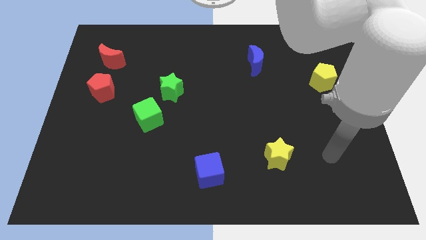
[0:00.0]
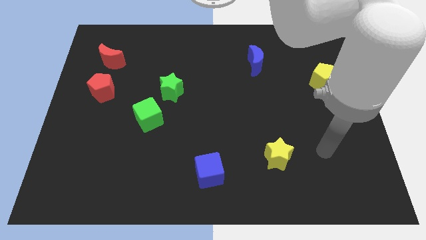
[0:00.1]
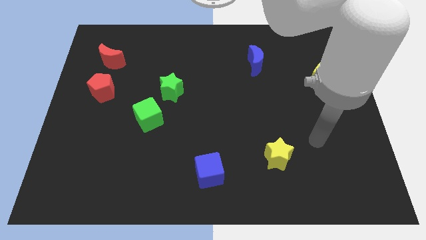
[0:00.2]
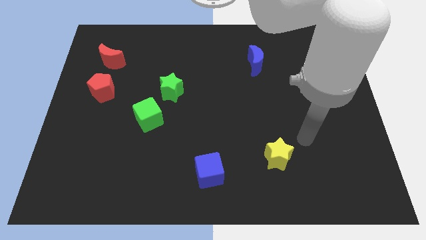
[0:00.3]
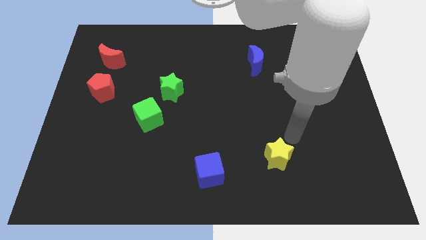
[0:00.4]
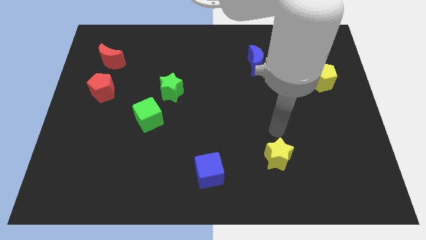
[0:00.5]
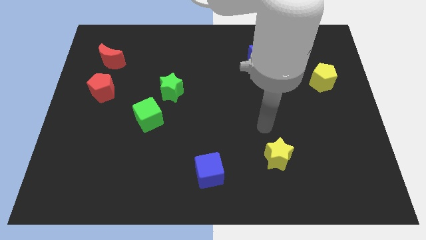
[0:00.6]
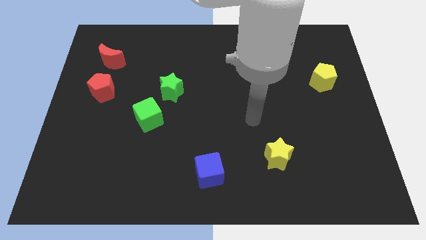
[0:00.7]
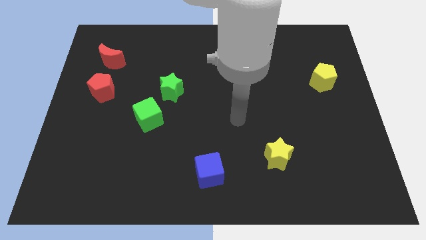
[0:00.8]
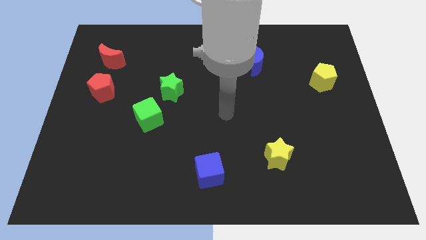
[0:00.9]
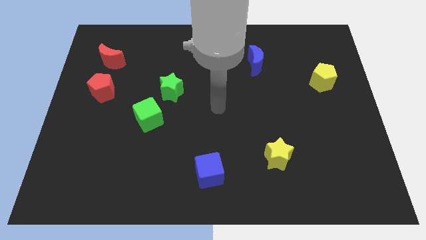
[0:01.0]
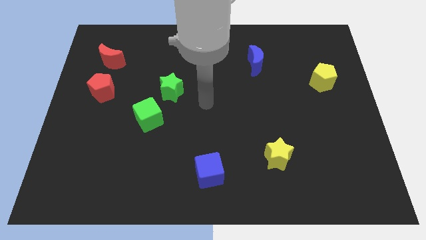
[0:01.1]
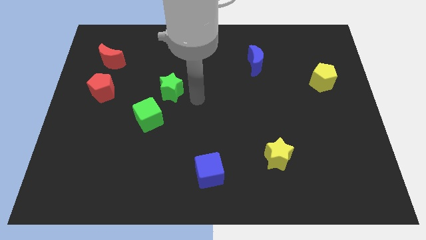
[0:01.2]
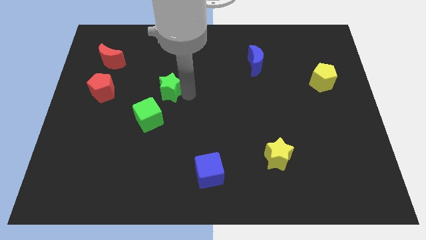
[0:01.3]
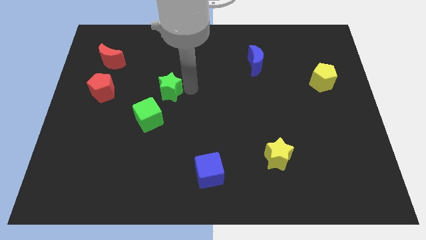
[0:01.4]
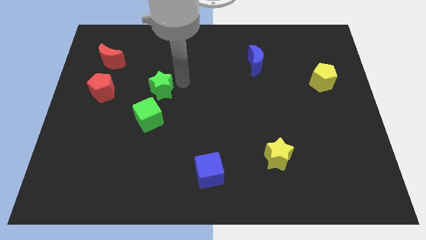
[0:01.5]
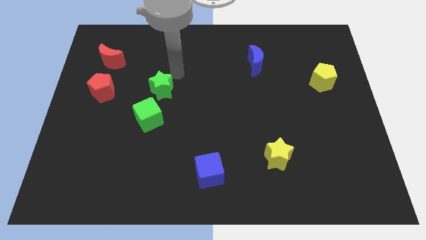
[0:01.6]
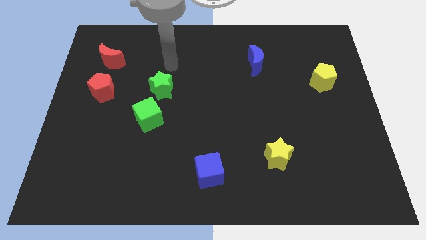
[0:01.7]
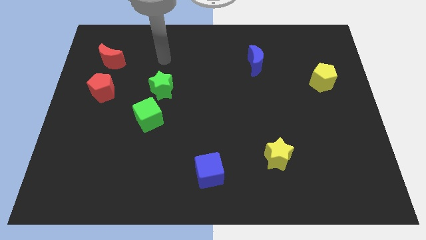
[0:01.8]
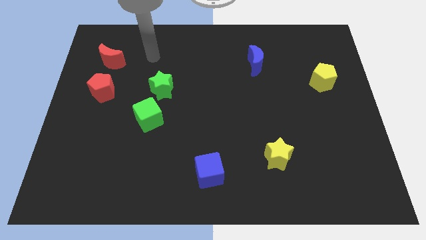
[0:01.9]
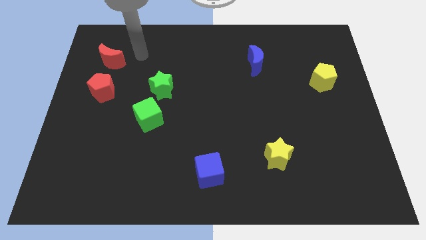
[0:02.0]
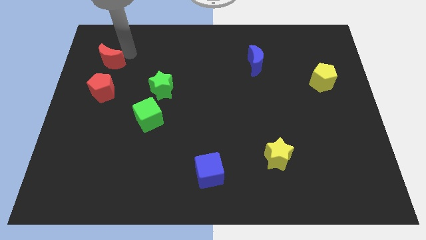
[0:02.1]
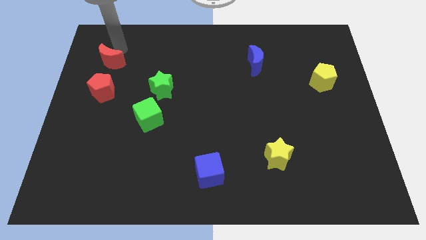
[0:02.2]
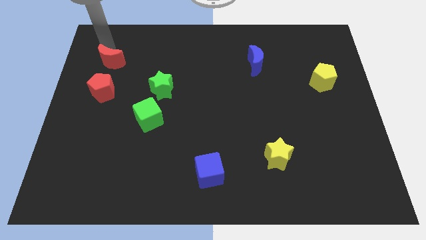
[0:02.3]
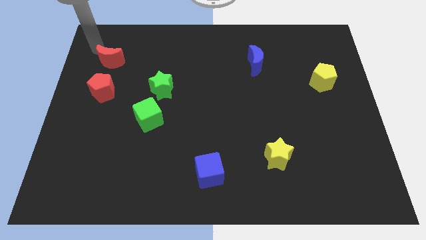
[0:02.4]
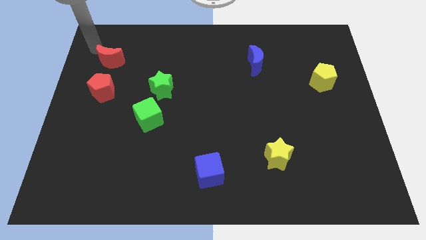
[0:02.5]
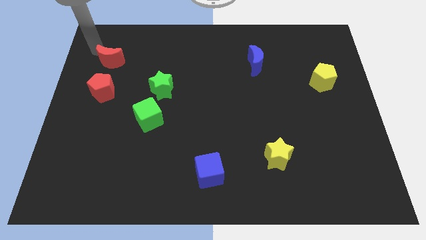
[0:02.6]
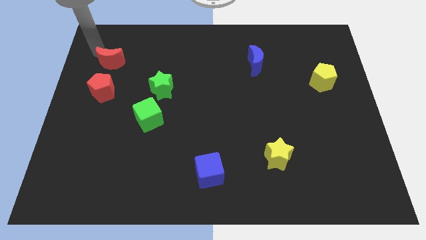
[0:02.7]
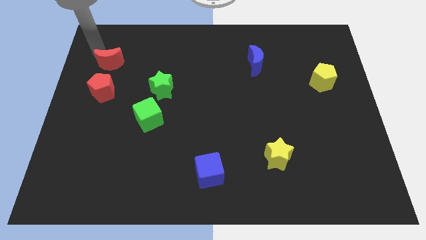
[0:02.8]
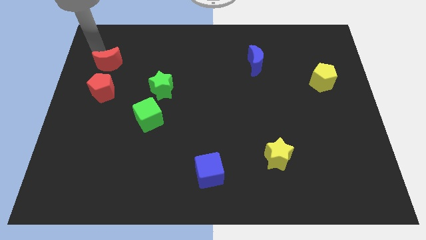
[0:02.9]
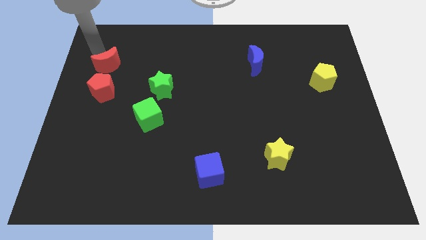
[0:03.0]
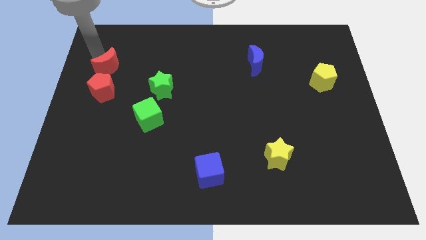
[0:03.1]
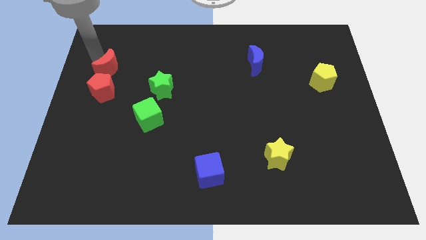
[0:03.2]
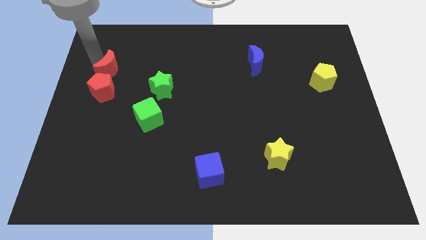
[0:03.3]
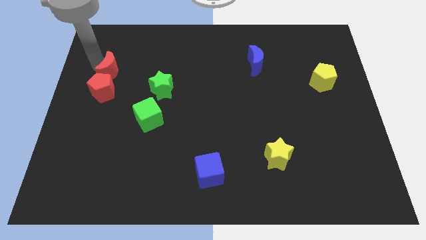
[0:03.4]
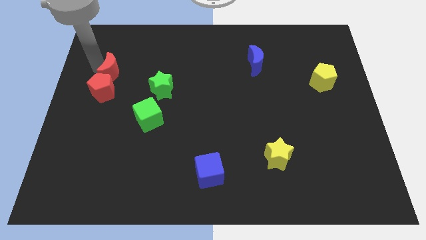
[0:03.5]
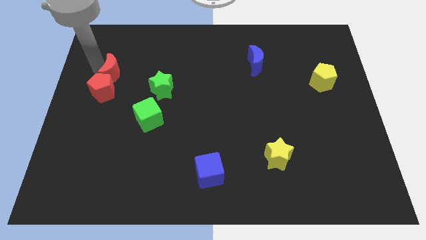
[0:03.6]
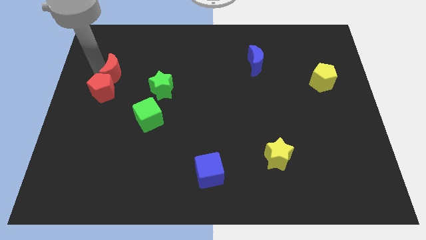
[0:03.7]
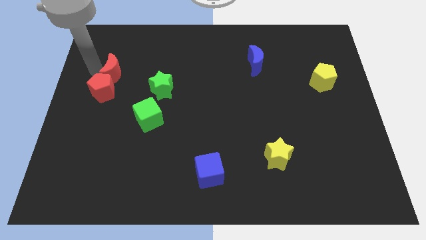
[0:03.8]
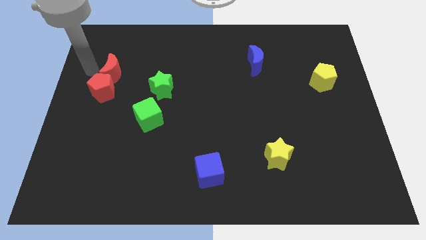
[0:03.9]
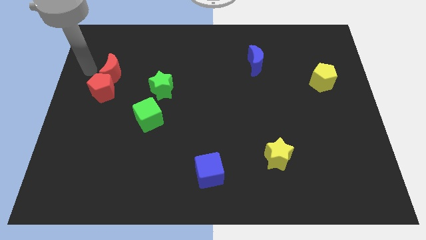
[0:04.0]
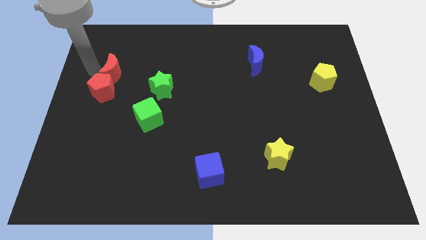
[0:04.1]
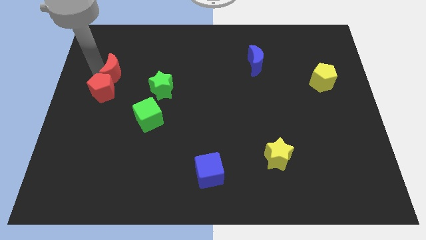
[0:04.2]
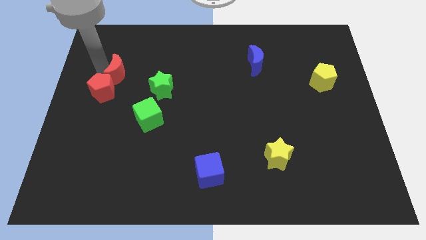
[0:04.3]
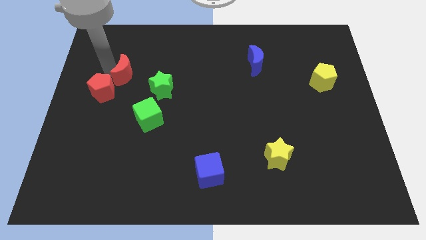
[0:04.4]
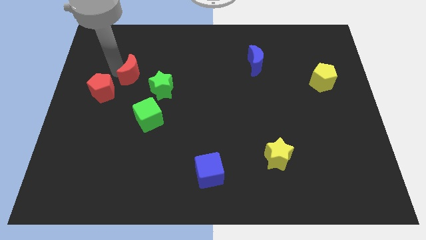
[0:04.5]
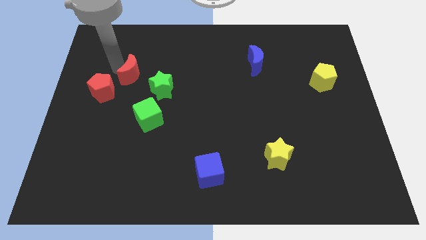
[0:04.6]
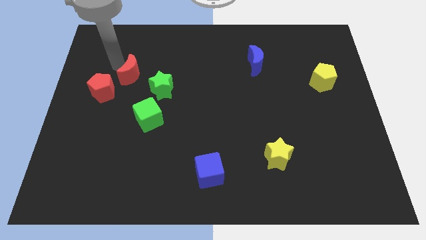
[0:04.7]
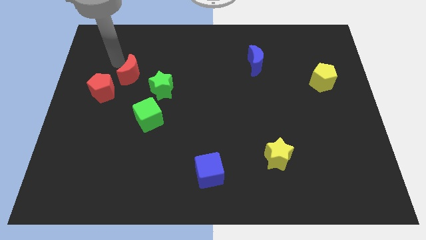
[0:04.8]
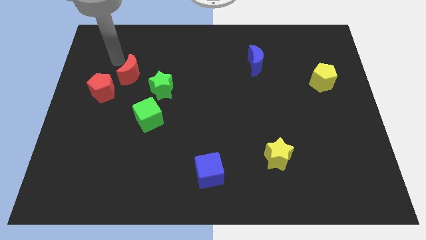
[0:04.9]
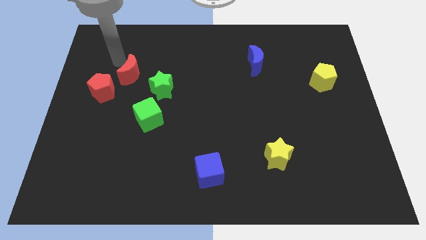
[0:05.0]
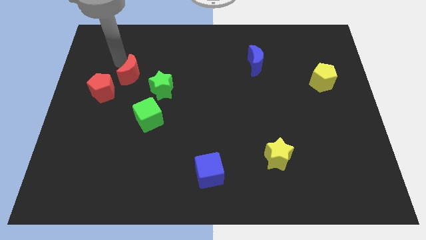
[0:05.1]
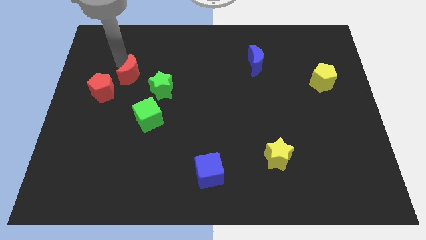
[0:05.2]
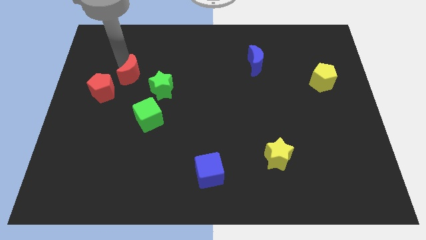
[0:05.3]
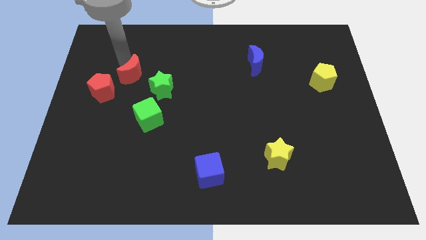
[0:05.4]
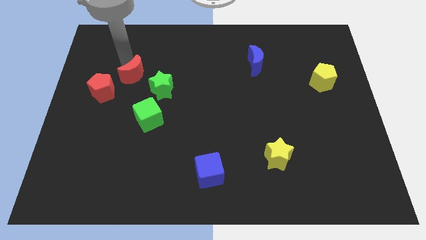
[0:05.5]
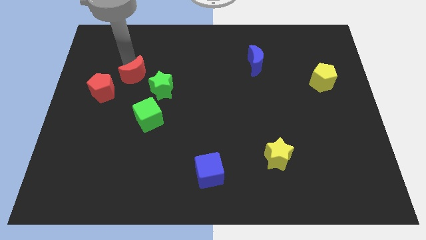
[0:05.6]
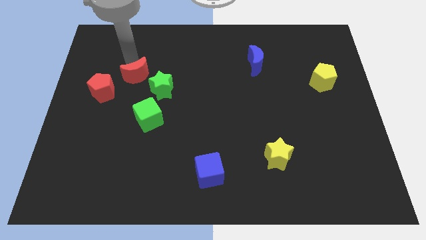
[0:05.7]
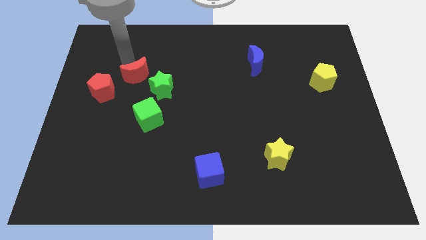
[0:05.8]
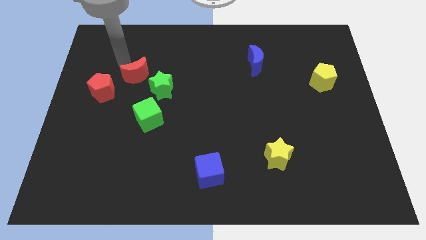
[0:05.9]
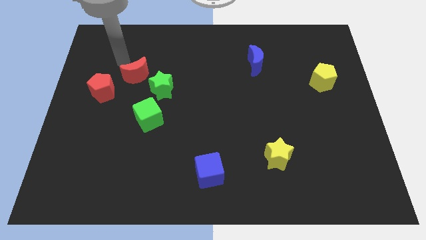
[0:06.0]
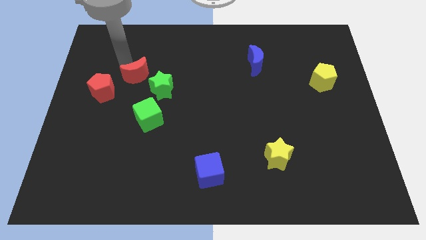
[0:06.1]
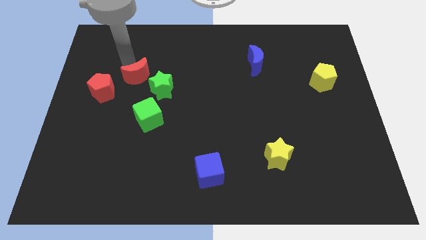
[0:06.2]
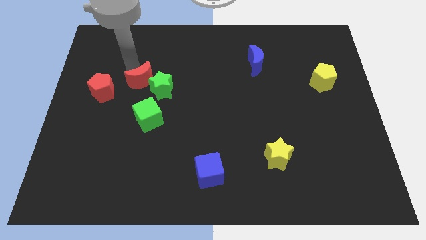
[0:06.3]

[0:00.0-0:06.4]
slide the red moon towards the green star
